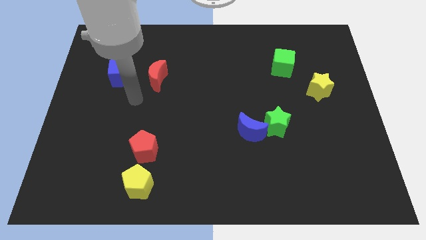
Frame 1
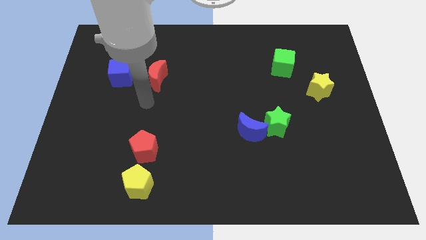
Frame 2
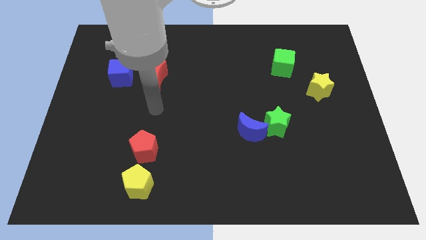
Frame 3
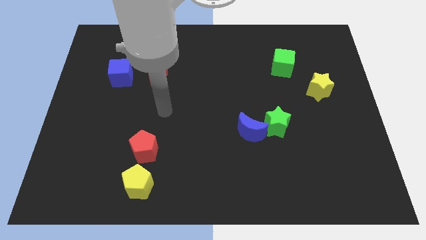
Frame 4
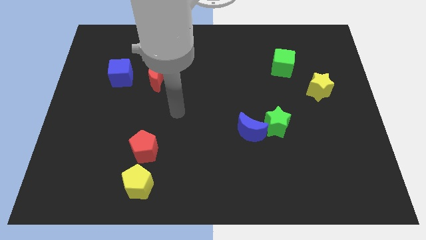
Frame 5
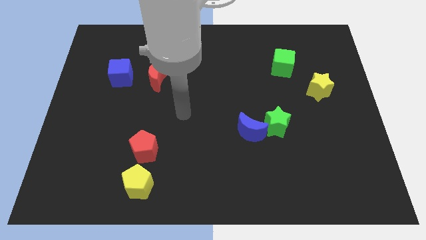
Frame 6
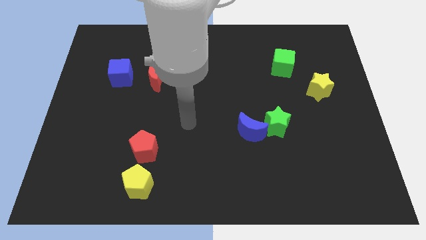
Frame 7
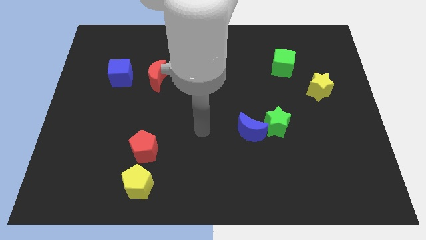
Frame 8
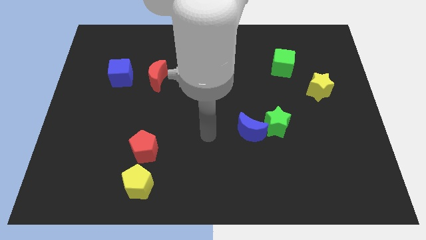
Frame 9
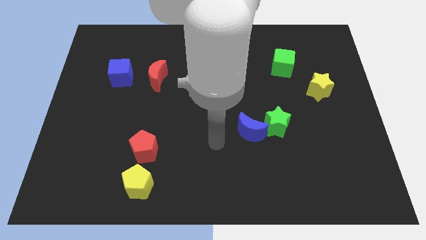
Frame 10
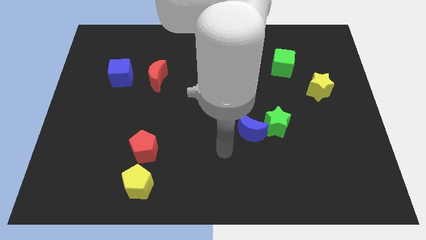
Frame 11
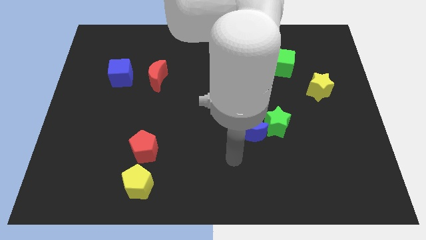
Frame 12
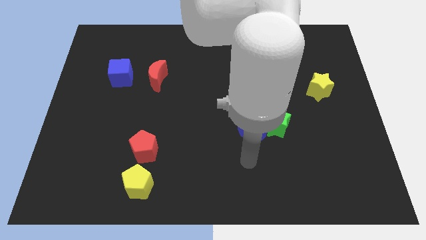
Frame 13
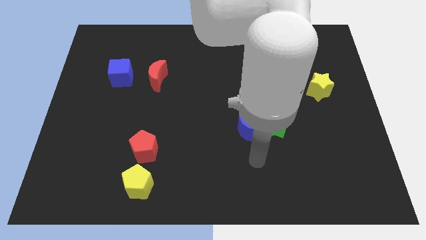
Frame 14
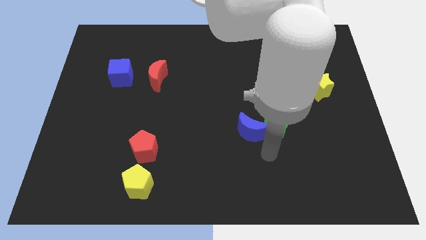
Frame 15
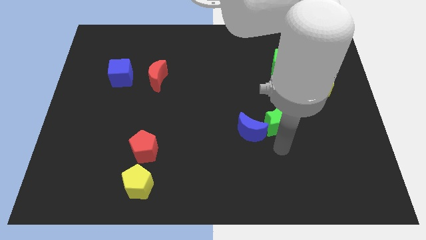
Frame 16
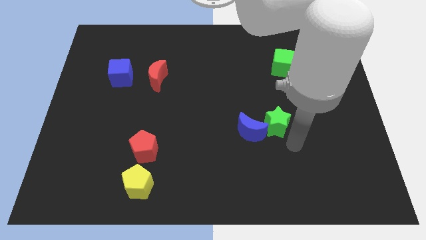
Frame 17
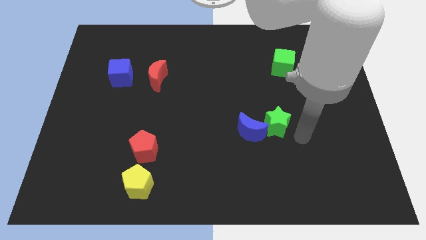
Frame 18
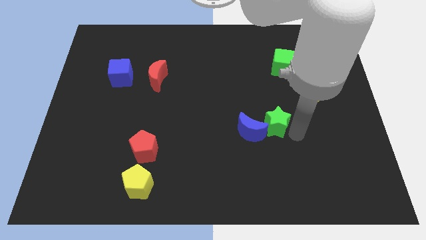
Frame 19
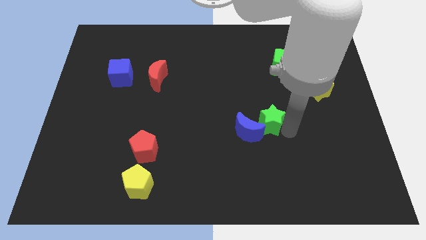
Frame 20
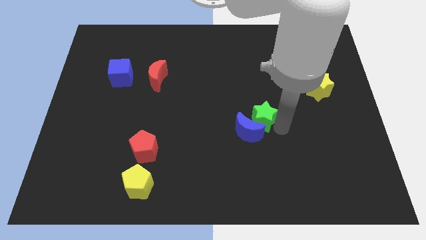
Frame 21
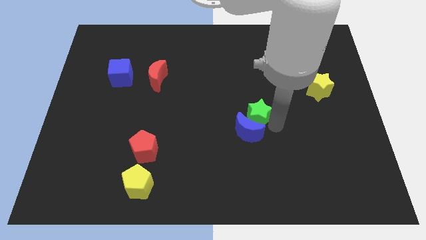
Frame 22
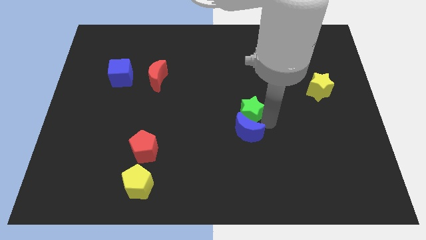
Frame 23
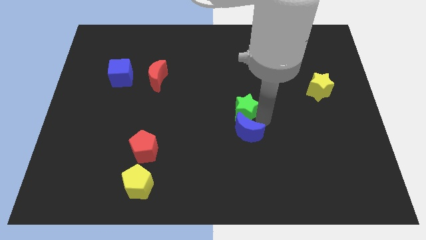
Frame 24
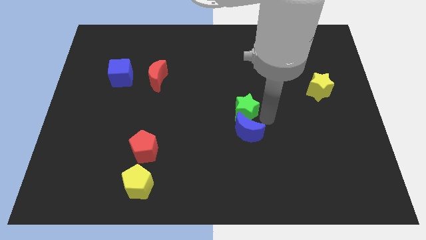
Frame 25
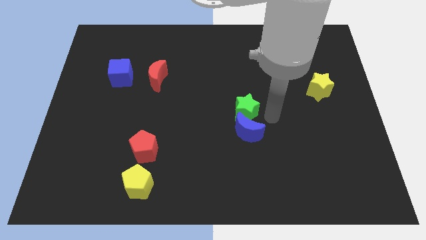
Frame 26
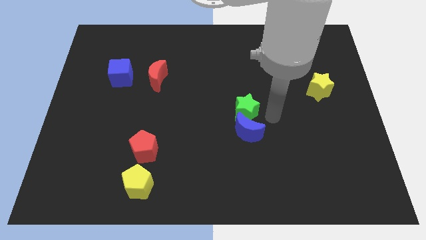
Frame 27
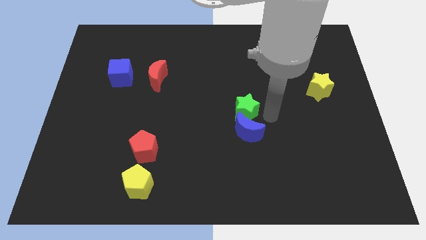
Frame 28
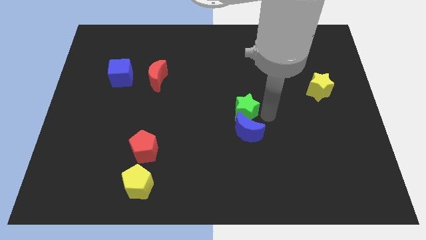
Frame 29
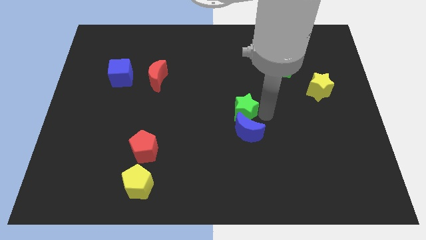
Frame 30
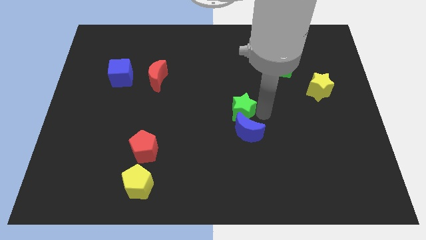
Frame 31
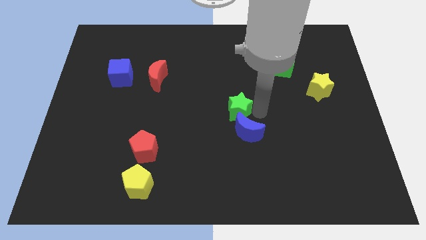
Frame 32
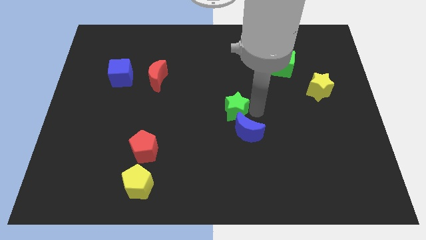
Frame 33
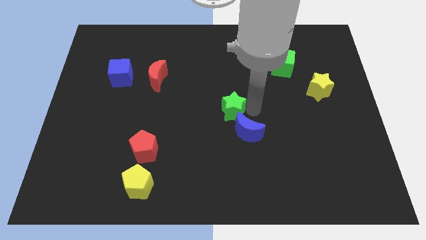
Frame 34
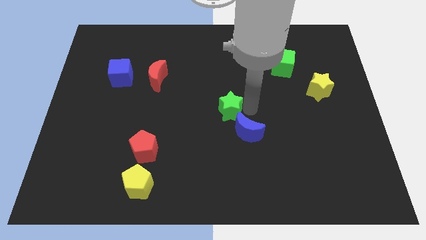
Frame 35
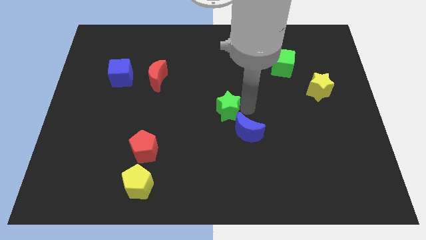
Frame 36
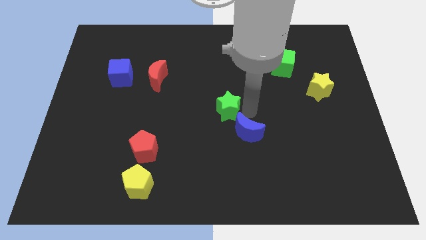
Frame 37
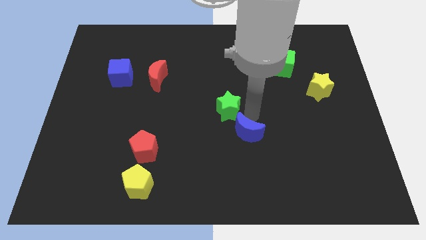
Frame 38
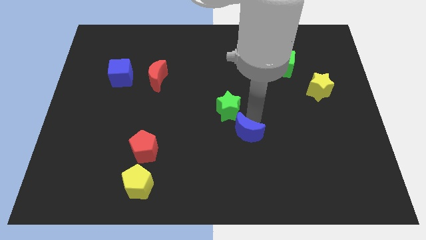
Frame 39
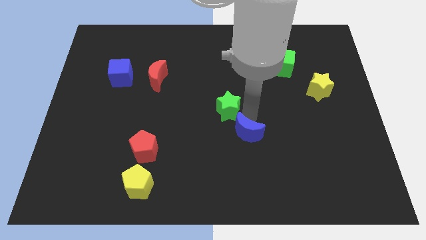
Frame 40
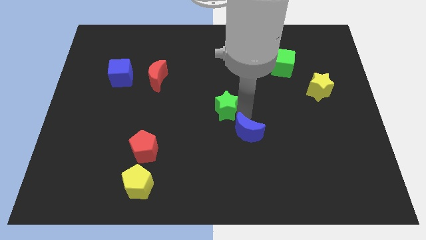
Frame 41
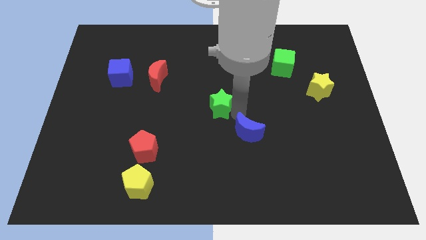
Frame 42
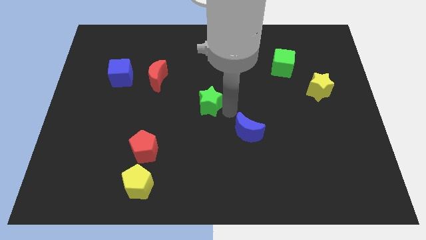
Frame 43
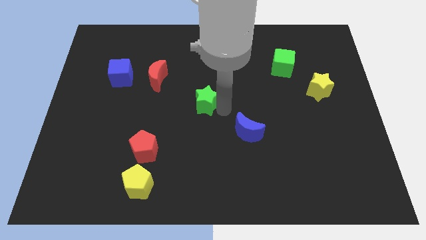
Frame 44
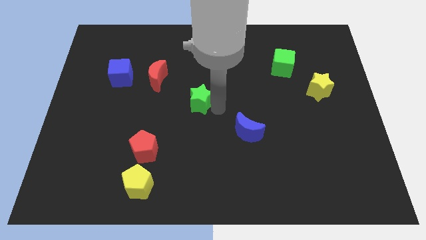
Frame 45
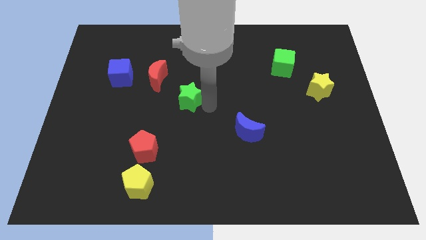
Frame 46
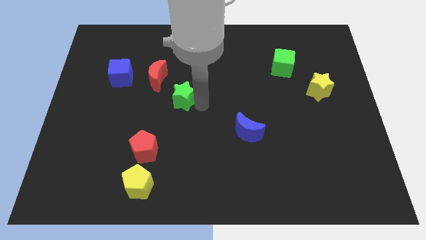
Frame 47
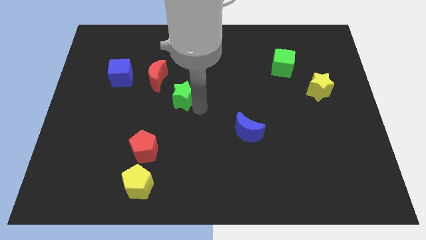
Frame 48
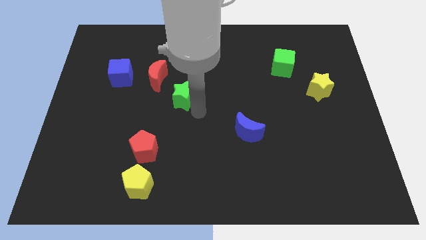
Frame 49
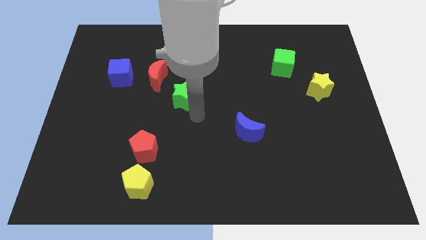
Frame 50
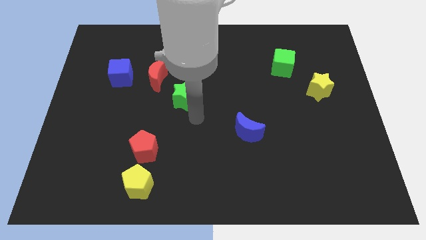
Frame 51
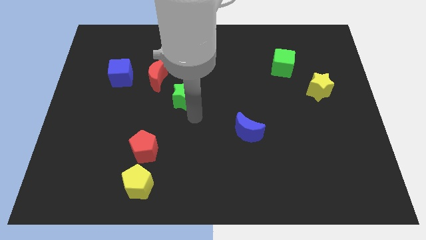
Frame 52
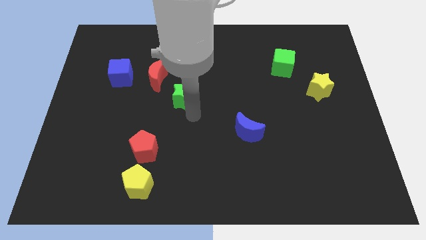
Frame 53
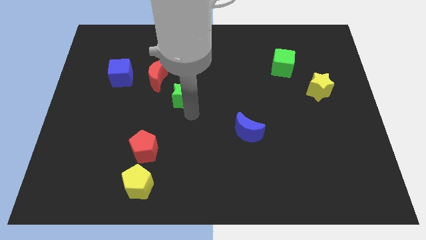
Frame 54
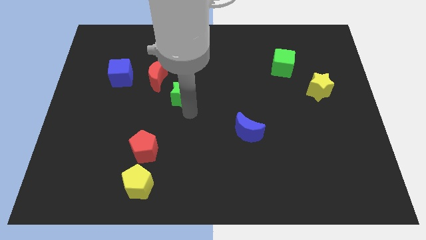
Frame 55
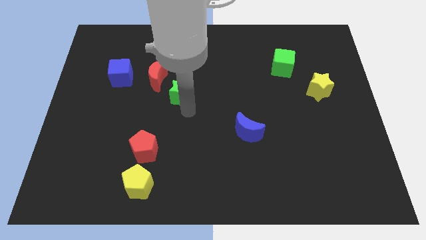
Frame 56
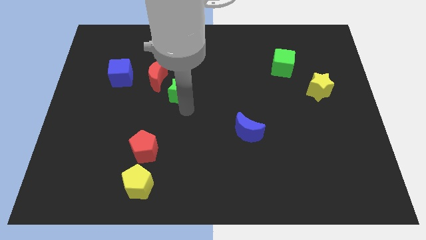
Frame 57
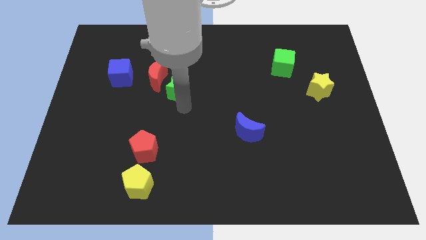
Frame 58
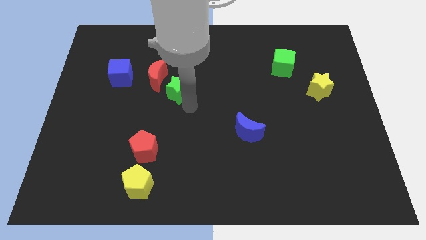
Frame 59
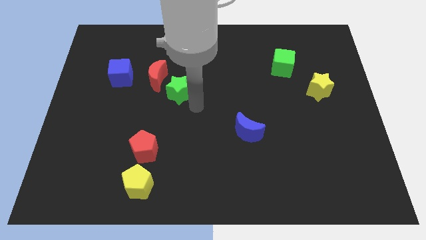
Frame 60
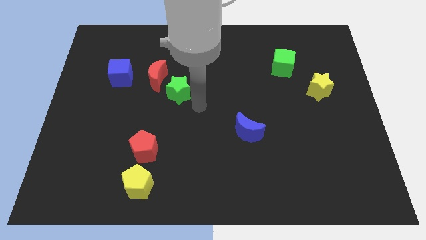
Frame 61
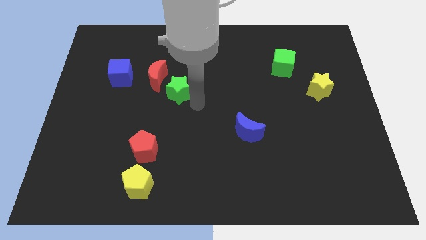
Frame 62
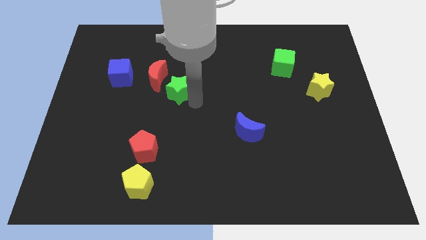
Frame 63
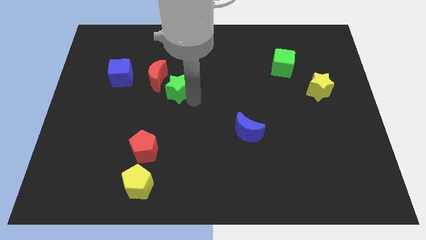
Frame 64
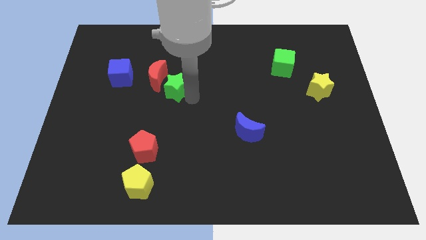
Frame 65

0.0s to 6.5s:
put the green star to the red moon
